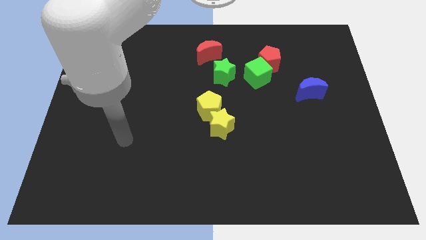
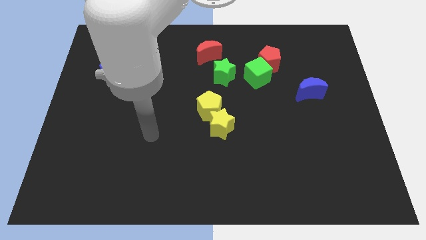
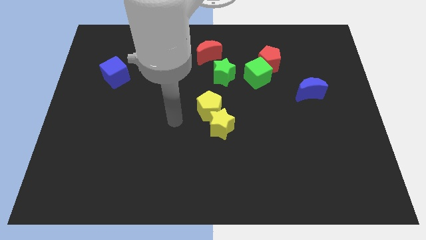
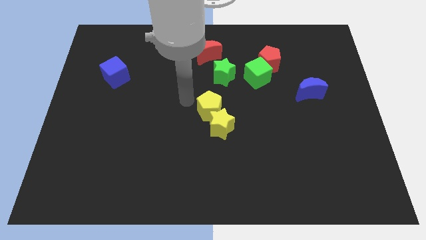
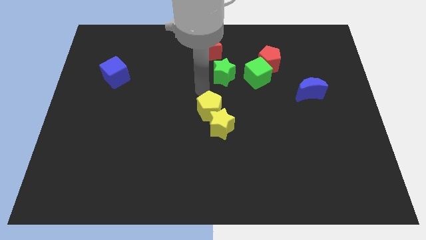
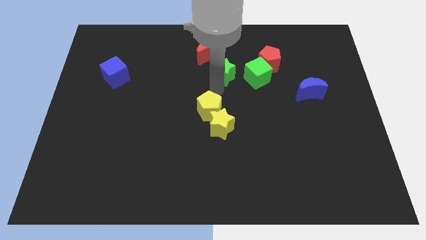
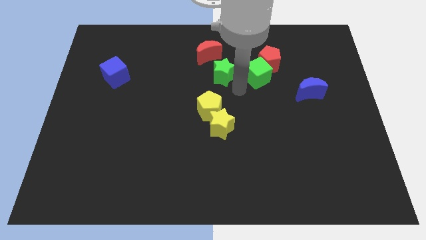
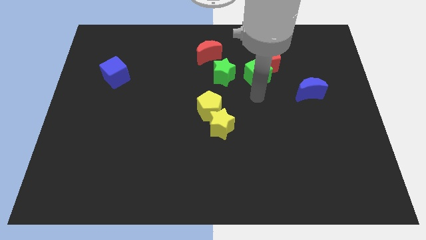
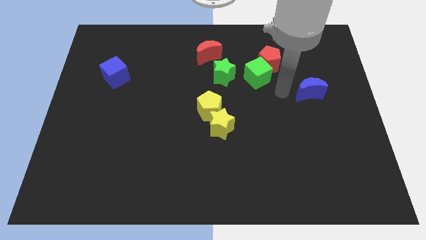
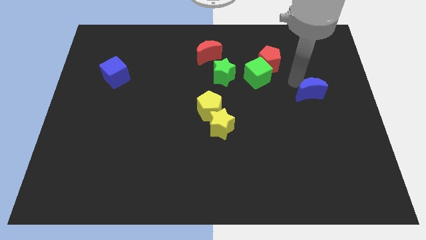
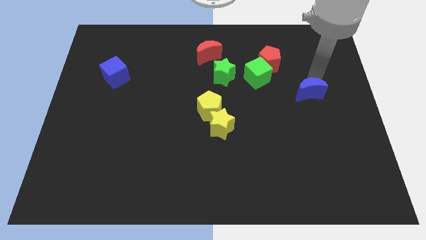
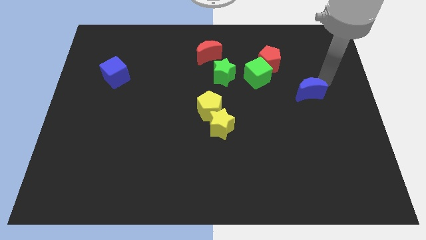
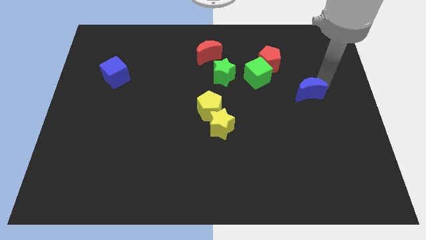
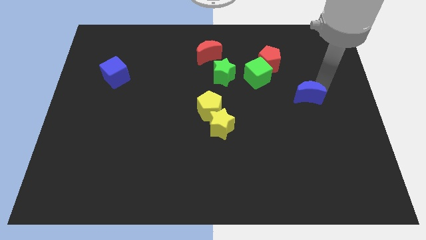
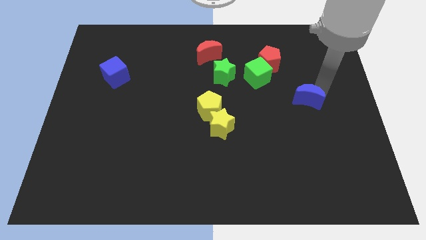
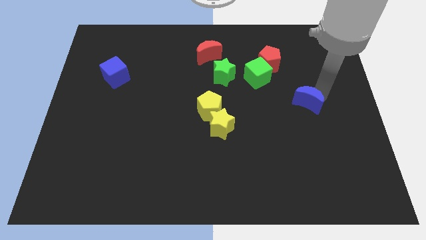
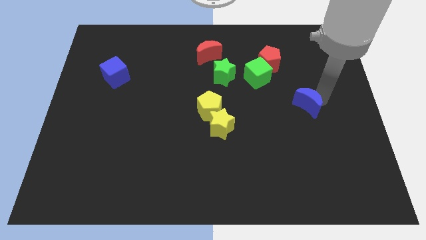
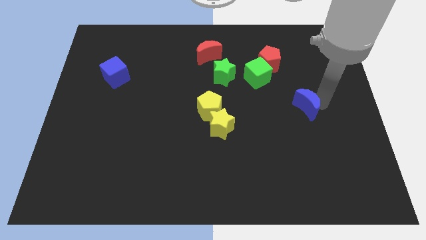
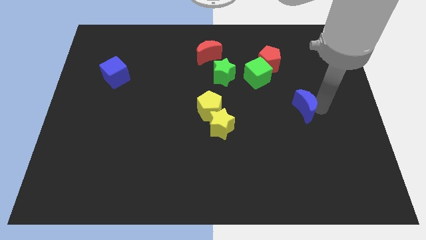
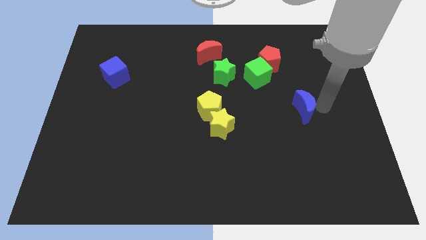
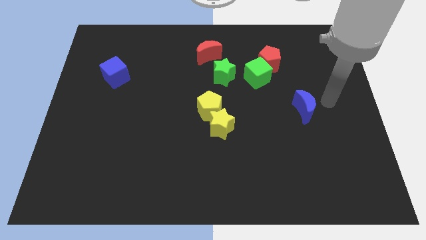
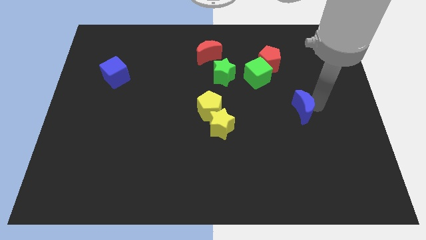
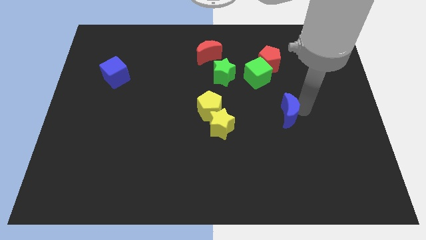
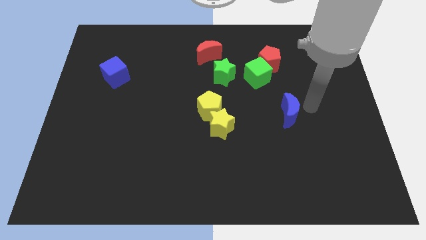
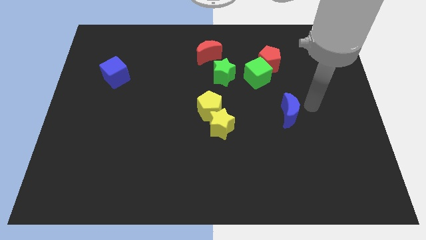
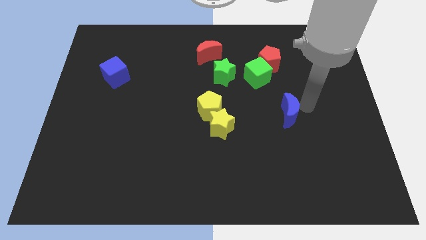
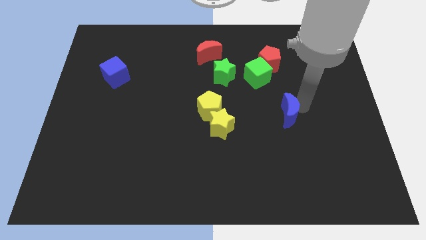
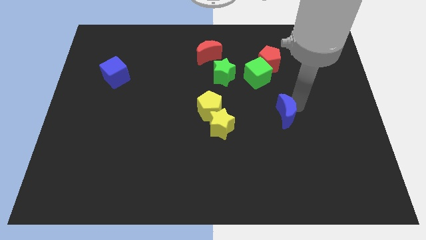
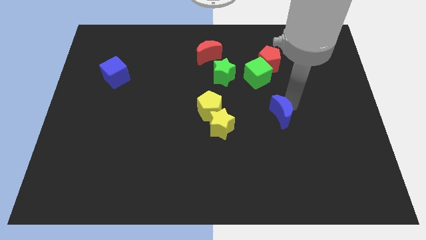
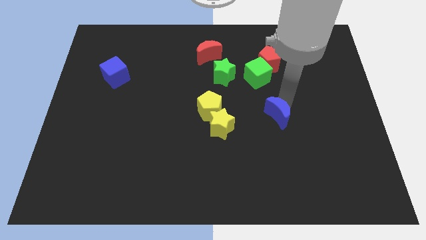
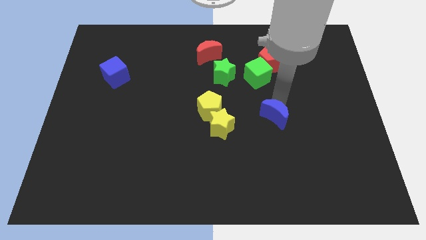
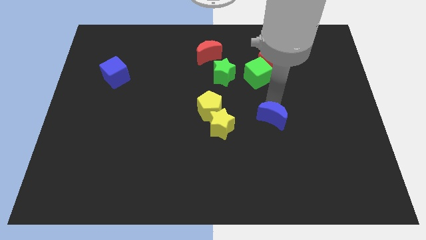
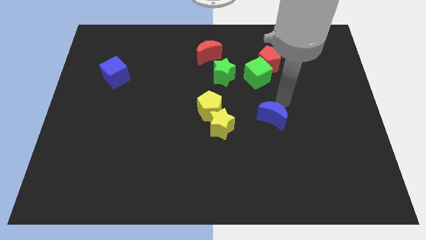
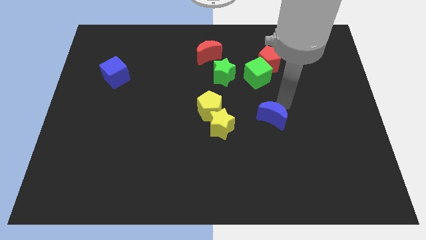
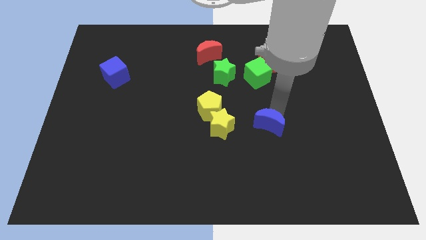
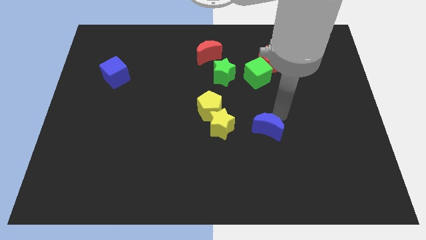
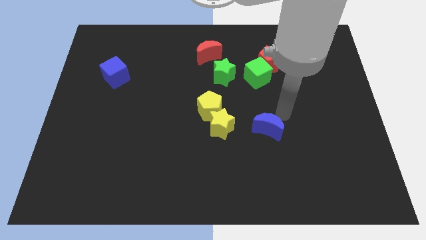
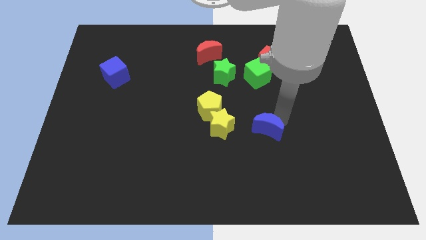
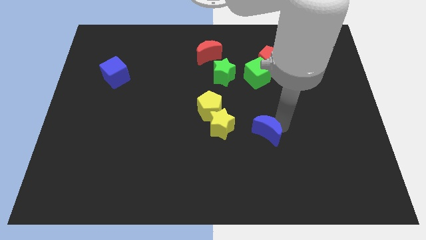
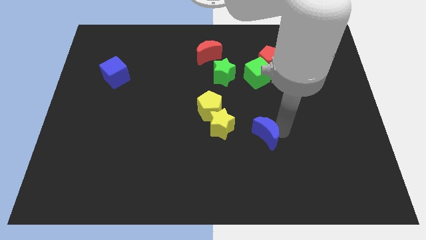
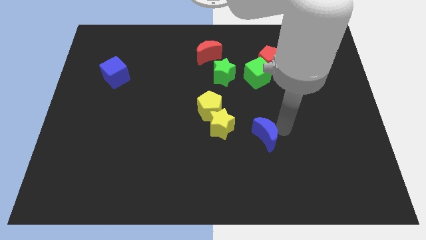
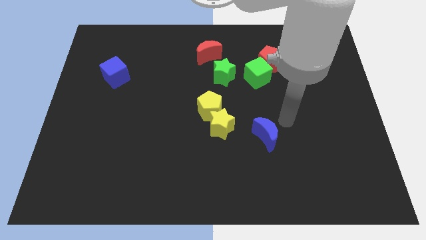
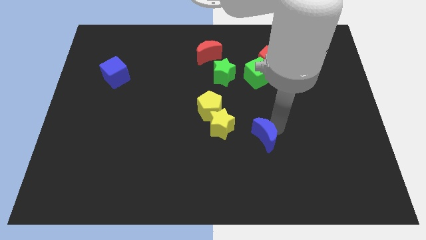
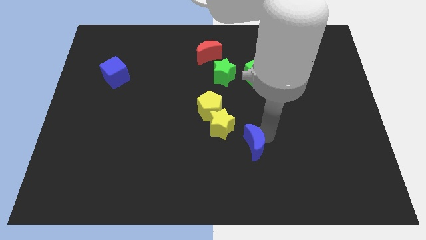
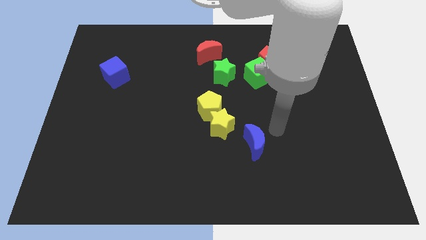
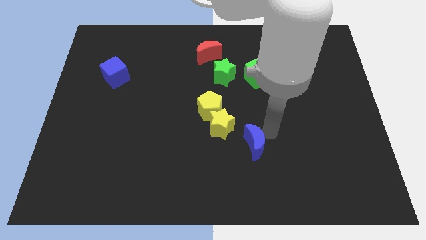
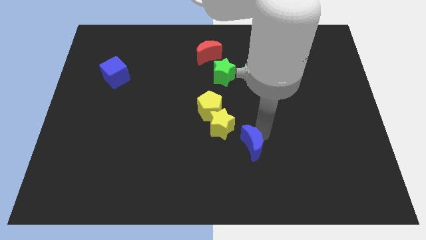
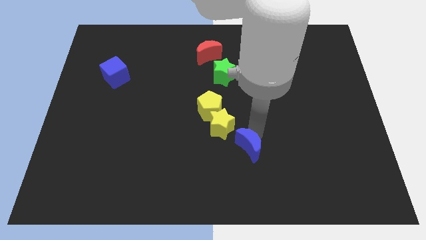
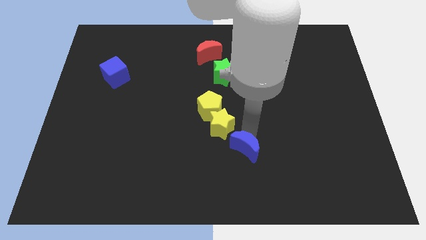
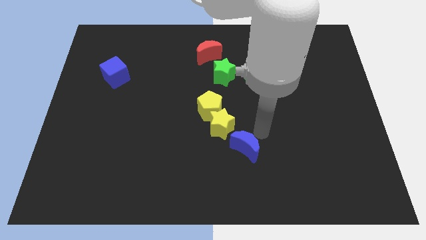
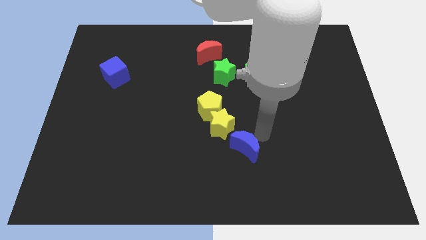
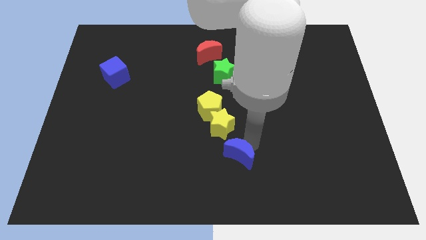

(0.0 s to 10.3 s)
slide the blue moon to the bottom of the yellow star

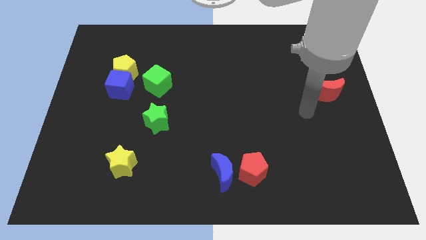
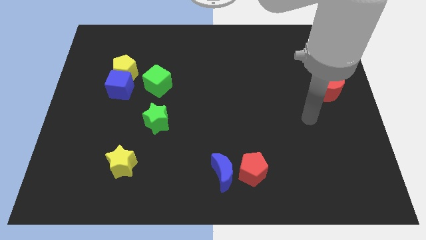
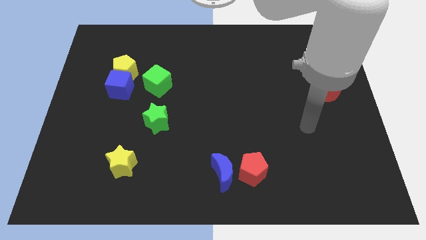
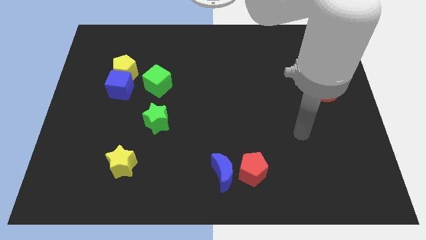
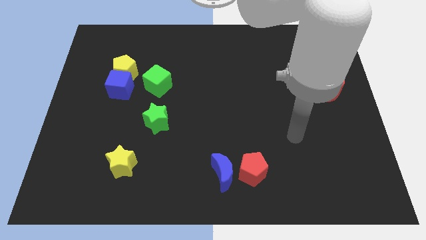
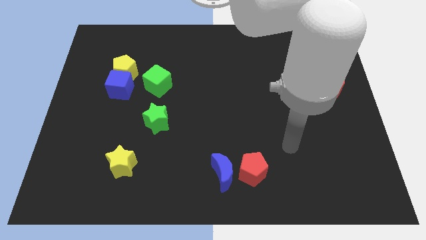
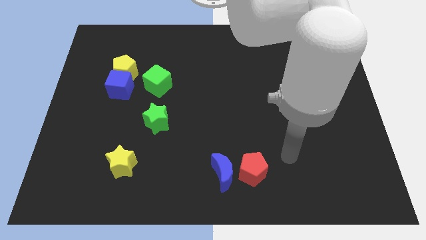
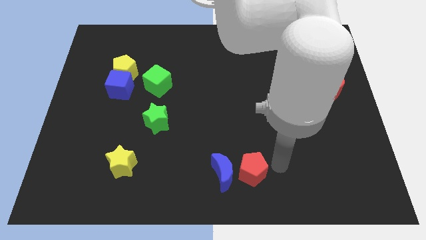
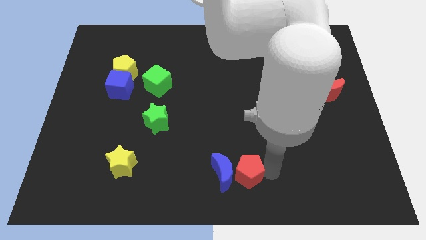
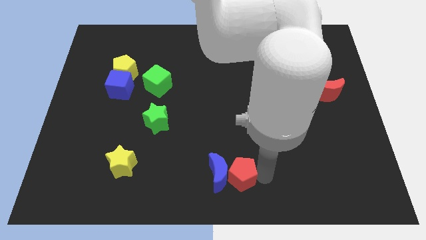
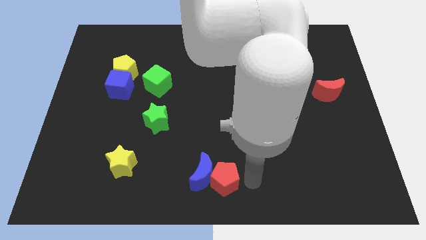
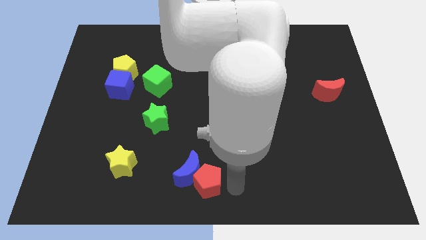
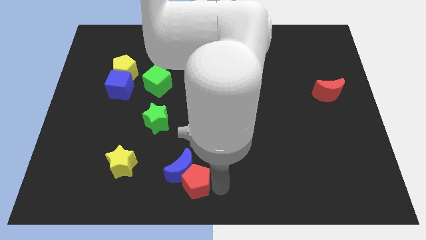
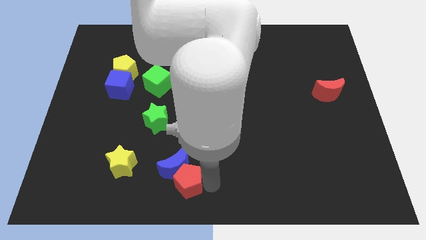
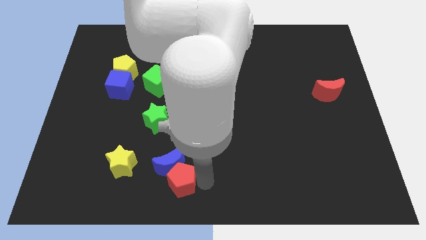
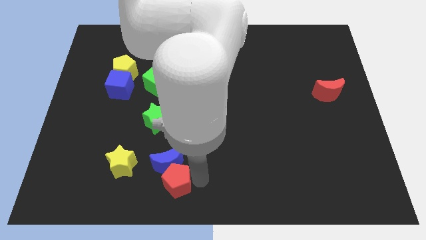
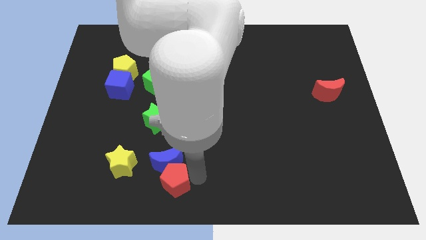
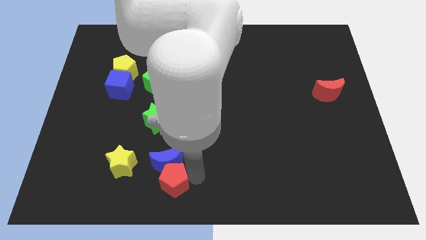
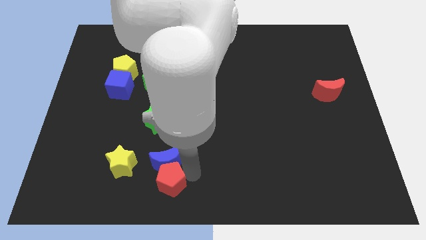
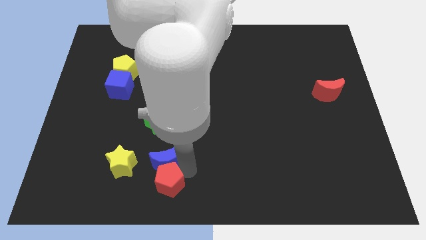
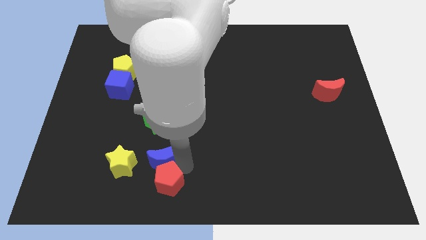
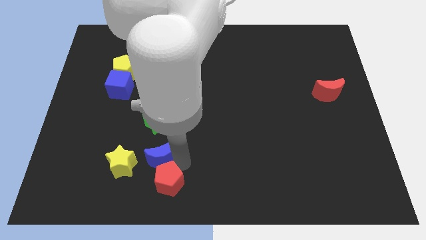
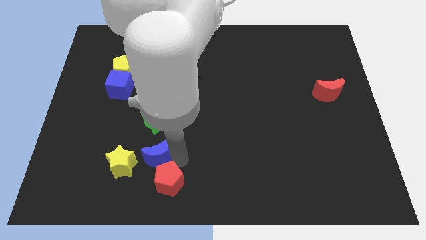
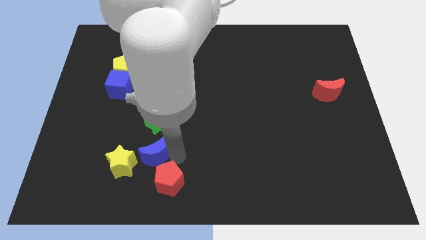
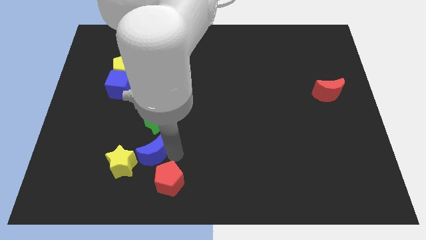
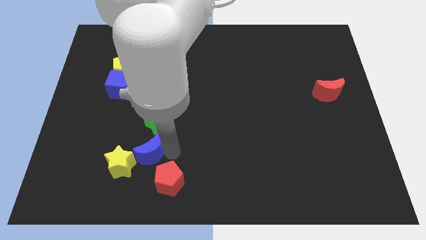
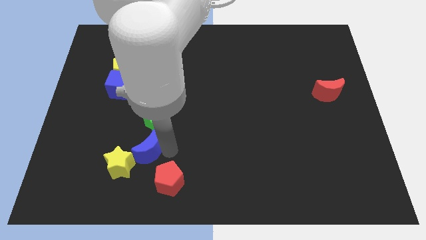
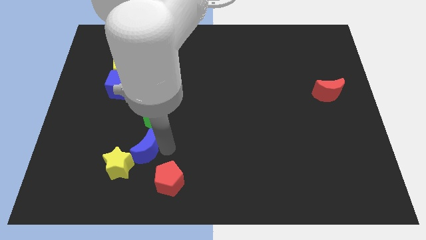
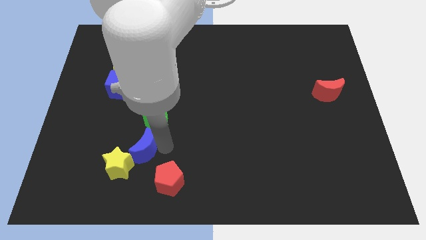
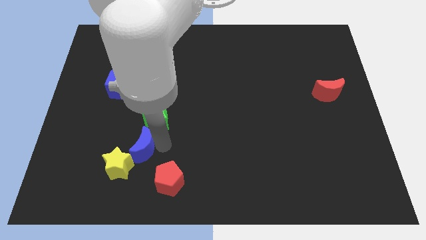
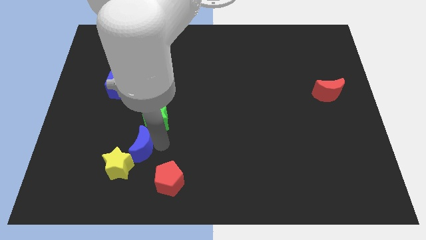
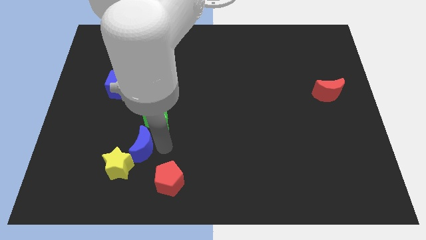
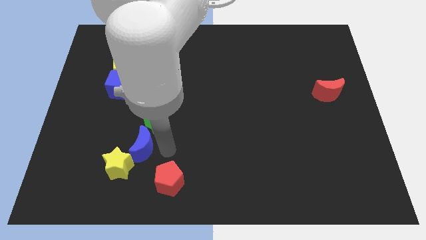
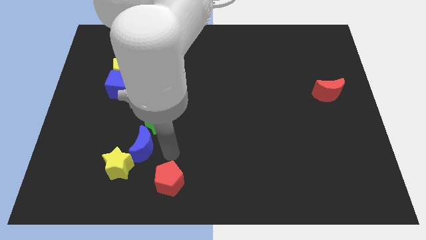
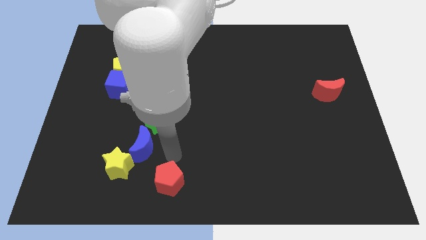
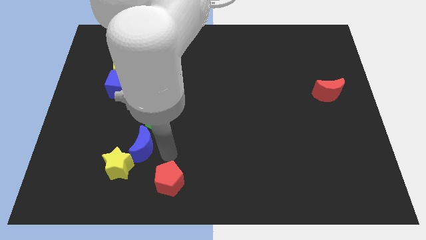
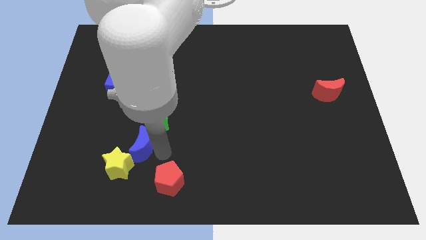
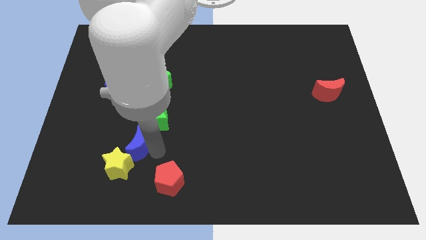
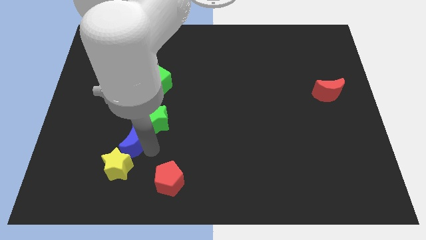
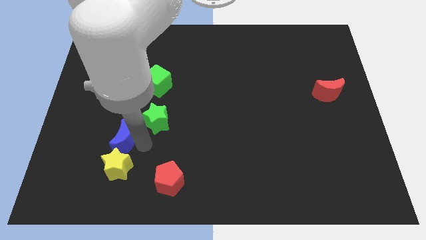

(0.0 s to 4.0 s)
slide the blue moon to the top left of the yellow star
